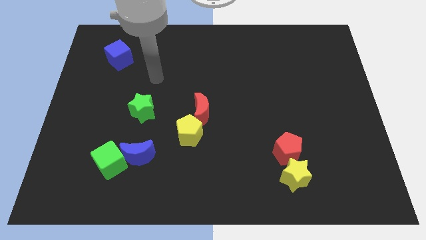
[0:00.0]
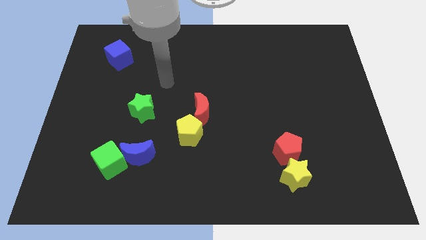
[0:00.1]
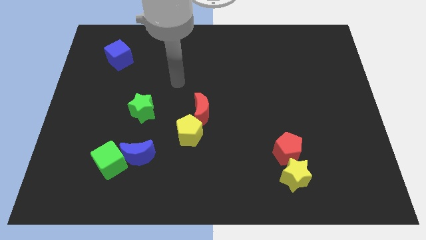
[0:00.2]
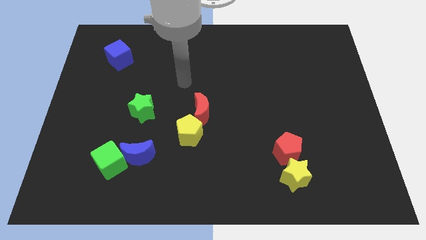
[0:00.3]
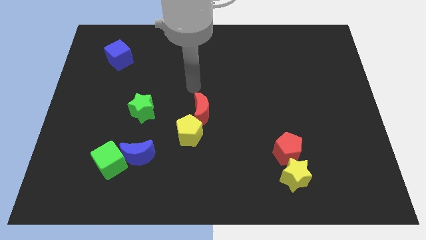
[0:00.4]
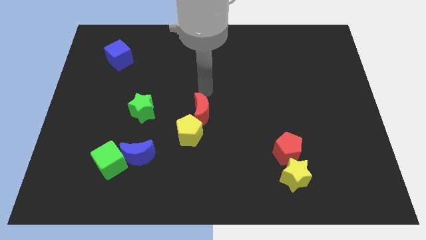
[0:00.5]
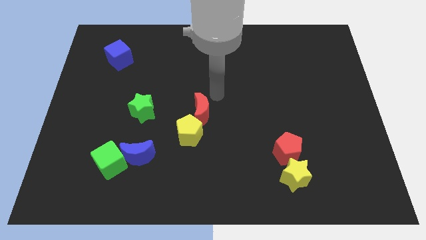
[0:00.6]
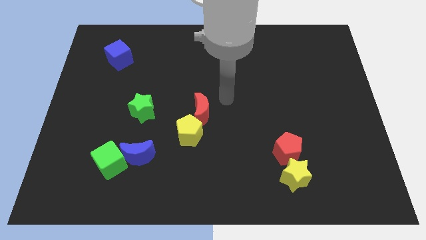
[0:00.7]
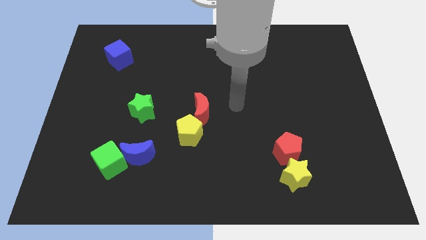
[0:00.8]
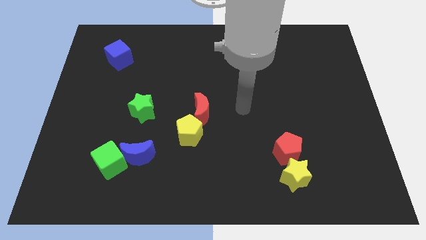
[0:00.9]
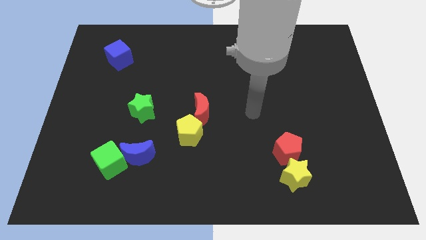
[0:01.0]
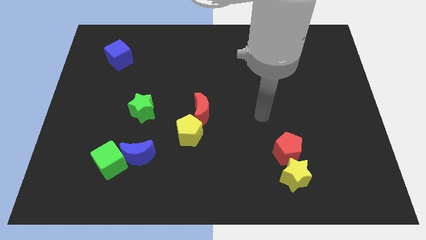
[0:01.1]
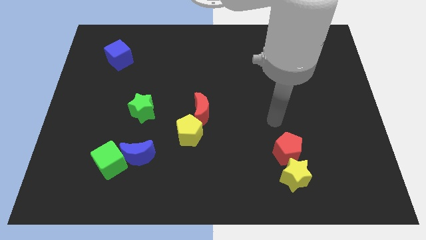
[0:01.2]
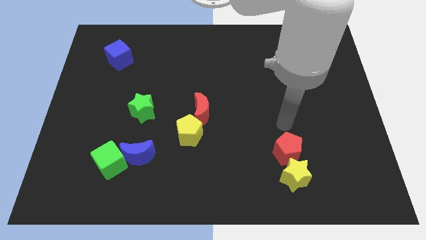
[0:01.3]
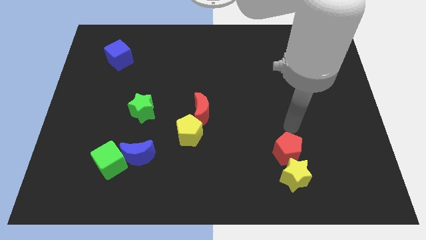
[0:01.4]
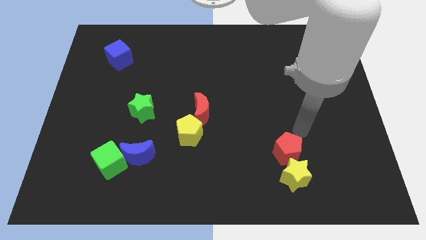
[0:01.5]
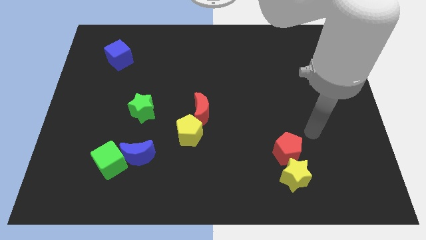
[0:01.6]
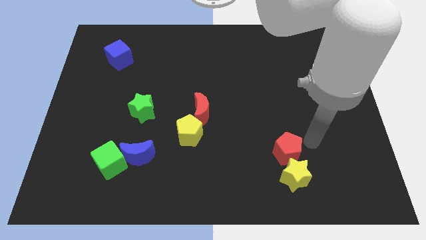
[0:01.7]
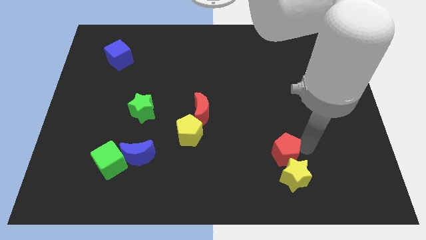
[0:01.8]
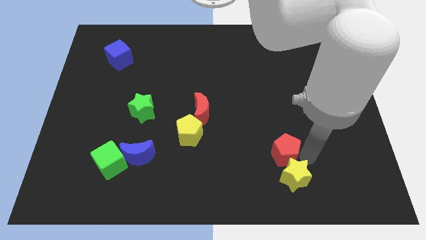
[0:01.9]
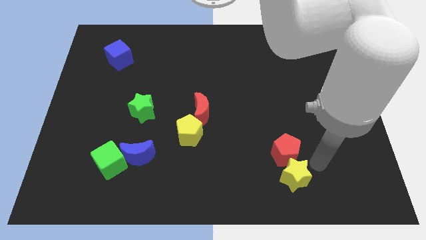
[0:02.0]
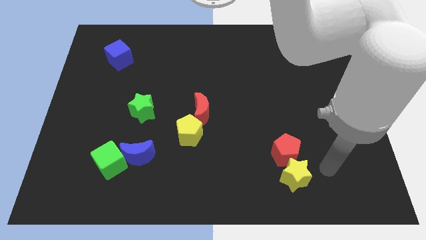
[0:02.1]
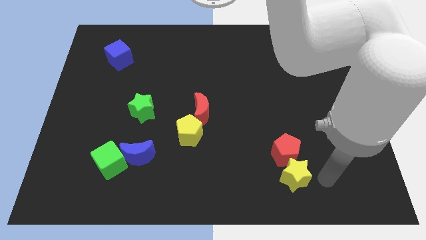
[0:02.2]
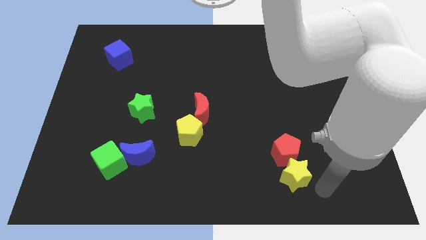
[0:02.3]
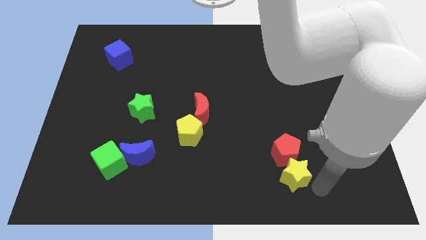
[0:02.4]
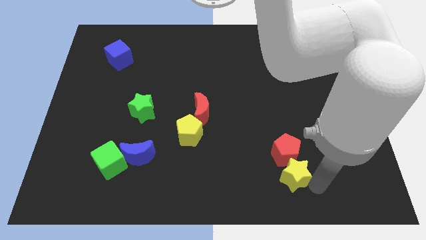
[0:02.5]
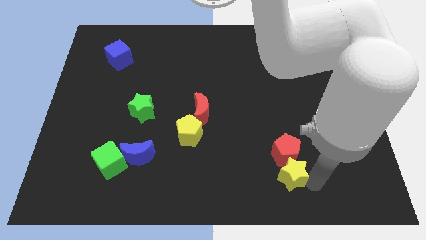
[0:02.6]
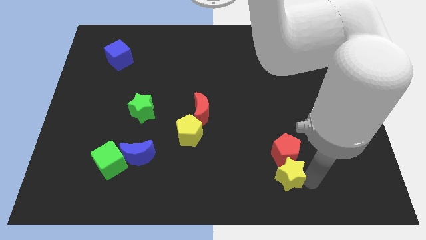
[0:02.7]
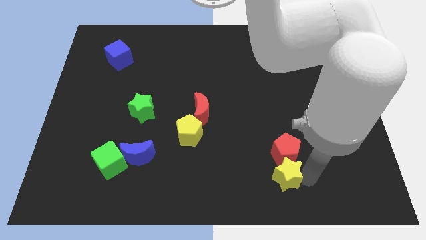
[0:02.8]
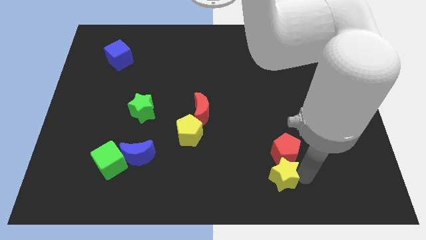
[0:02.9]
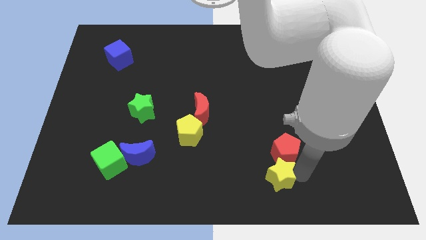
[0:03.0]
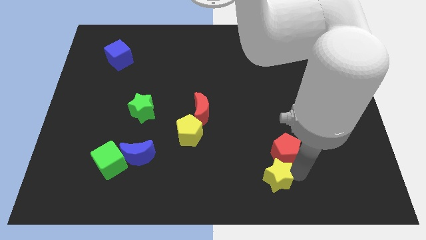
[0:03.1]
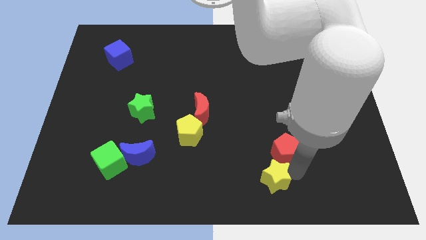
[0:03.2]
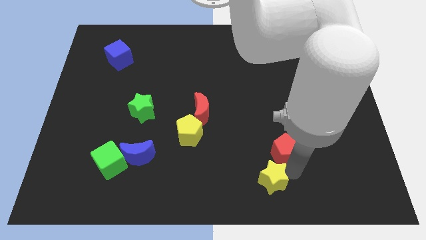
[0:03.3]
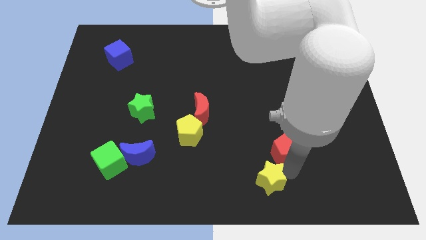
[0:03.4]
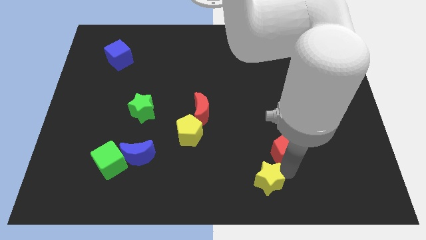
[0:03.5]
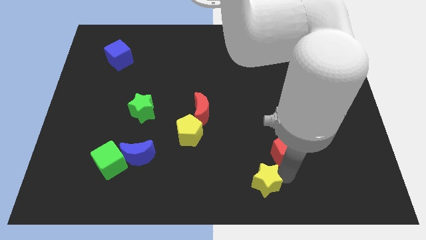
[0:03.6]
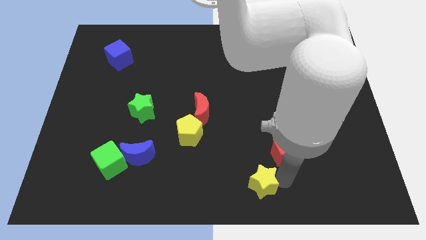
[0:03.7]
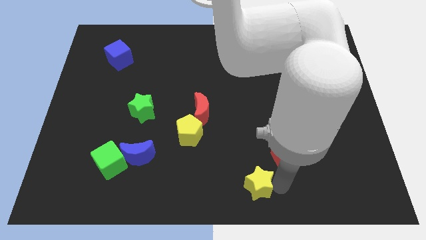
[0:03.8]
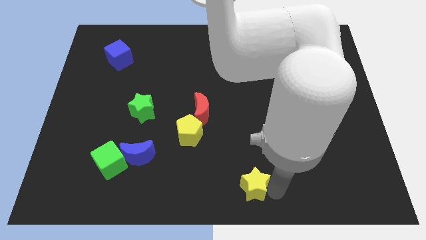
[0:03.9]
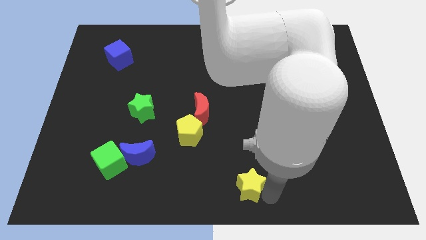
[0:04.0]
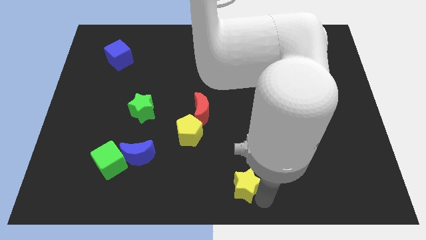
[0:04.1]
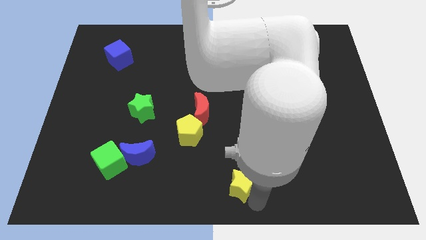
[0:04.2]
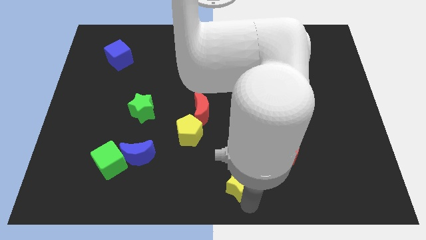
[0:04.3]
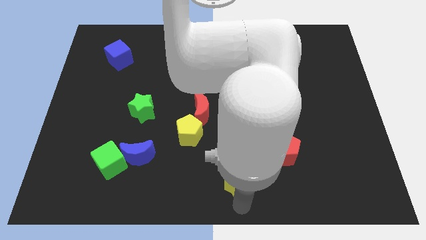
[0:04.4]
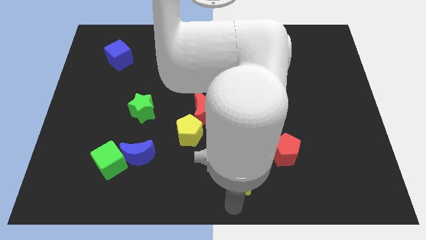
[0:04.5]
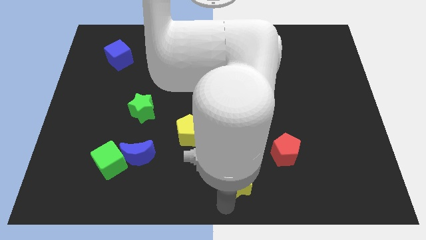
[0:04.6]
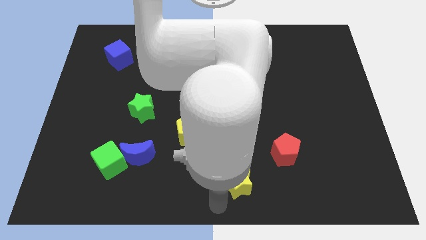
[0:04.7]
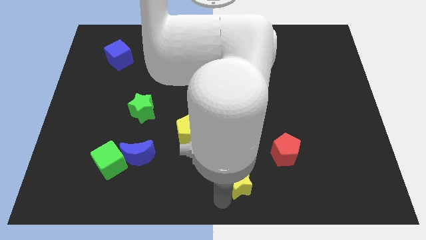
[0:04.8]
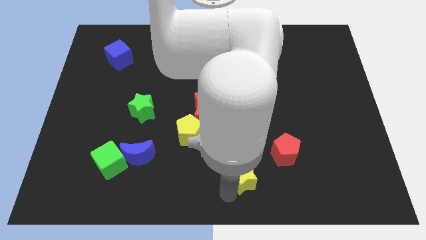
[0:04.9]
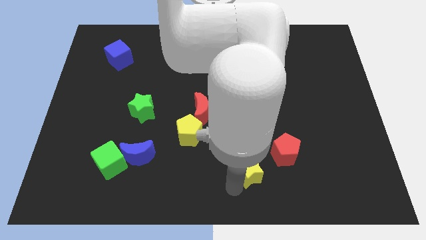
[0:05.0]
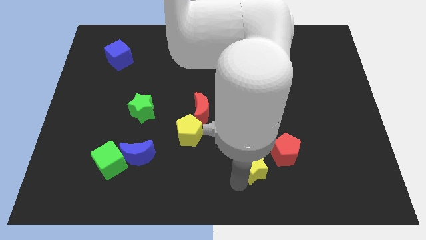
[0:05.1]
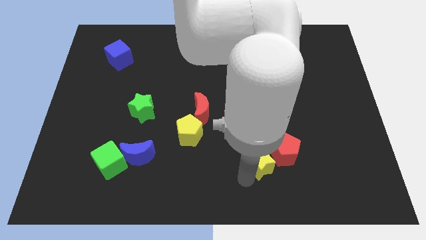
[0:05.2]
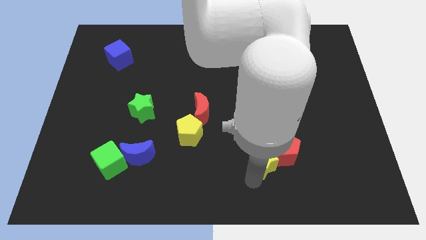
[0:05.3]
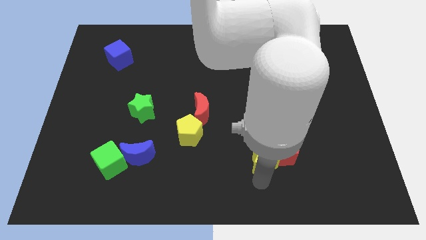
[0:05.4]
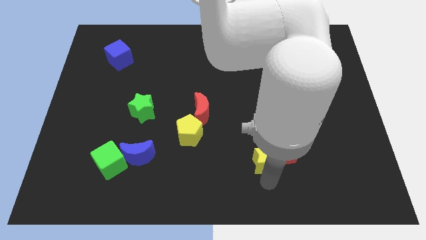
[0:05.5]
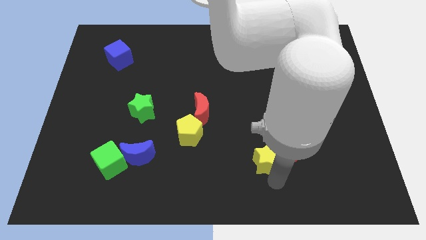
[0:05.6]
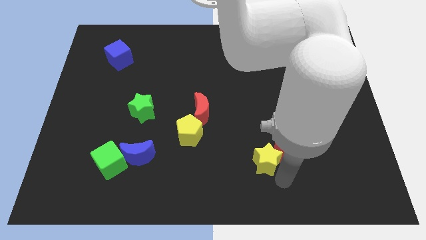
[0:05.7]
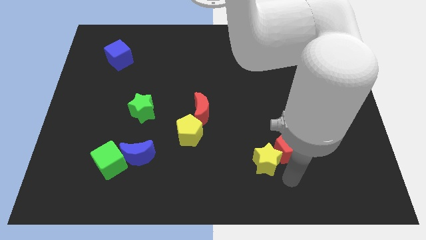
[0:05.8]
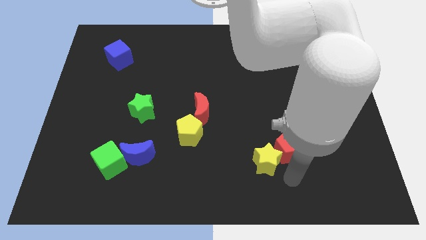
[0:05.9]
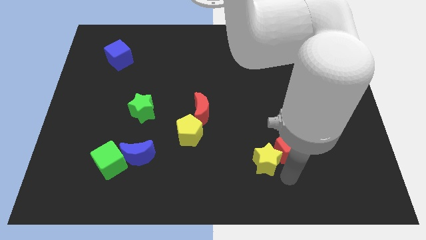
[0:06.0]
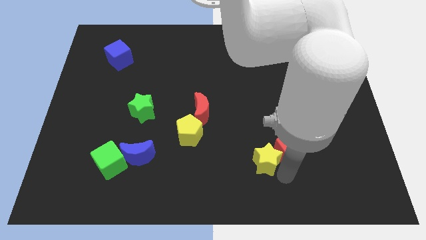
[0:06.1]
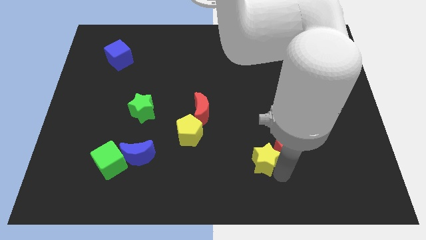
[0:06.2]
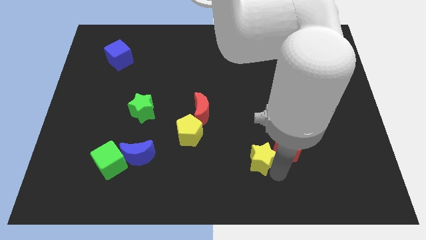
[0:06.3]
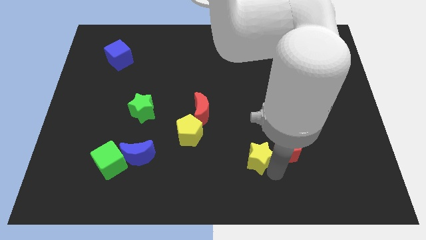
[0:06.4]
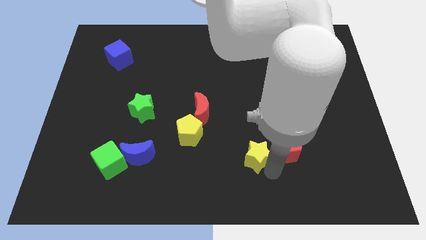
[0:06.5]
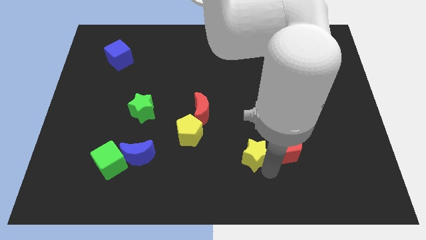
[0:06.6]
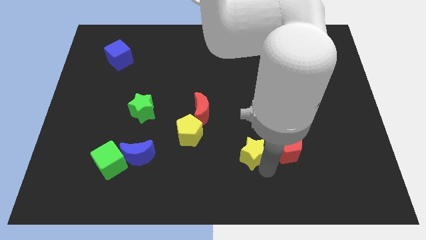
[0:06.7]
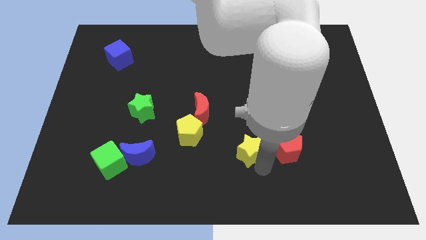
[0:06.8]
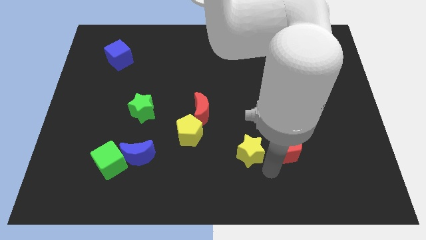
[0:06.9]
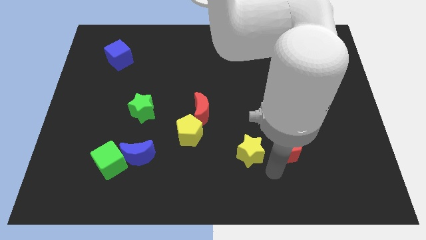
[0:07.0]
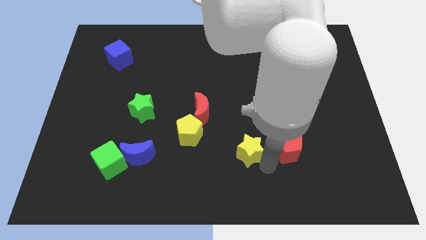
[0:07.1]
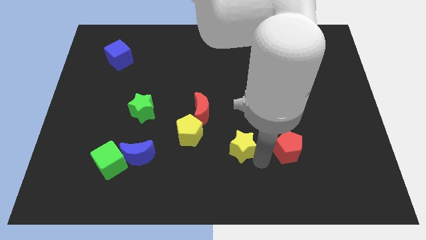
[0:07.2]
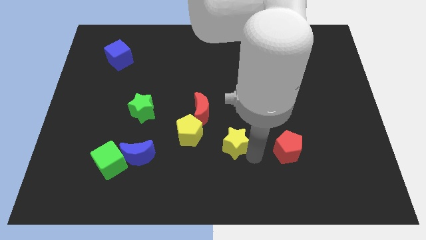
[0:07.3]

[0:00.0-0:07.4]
move the yellow star to the bottom right side of the red moon

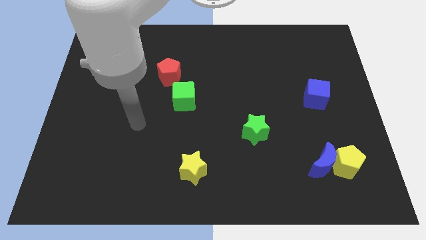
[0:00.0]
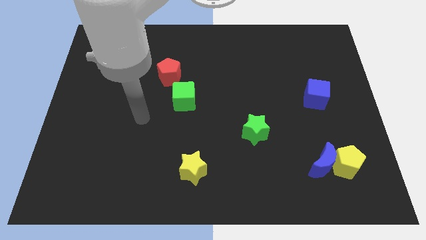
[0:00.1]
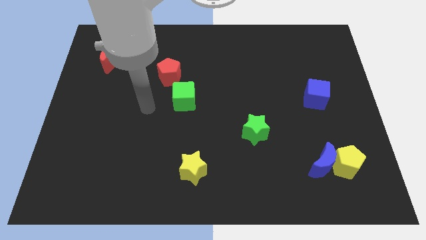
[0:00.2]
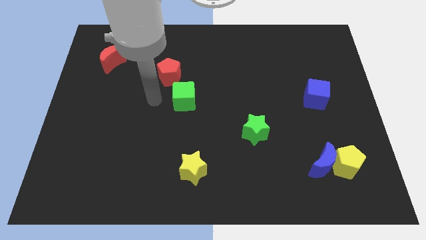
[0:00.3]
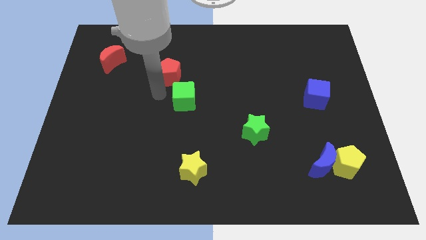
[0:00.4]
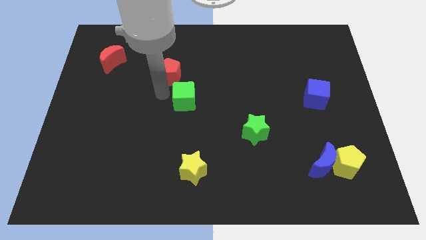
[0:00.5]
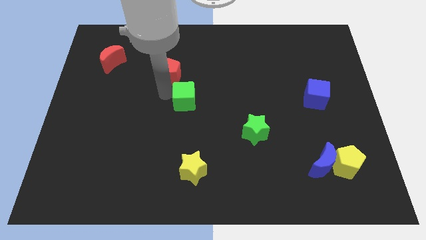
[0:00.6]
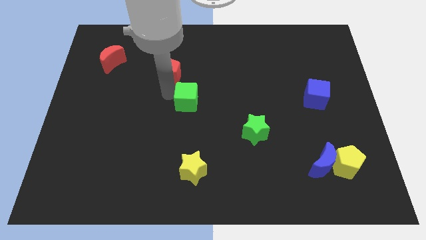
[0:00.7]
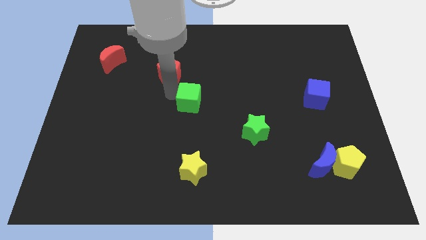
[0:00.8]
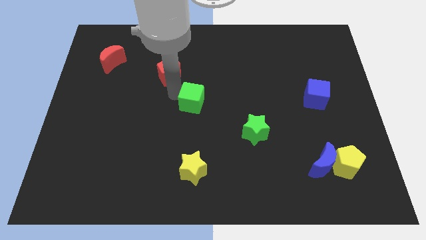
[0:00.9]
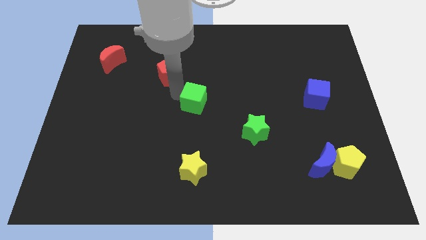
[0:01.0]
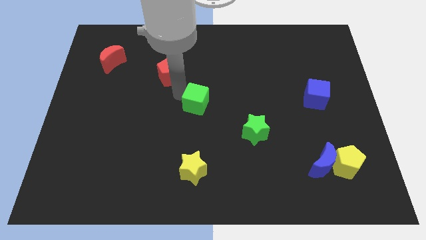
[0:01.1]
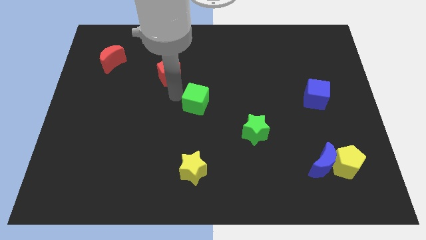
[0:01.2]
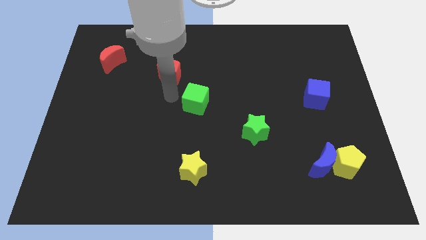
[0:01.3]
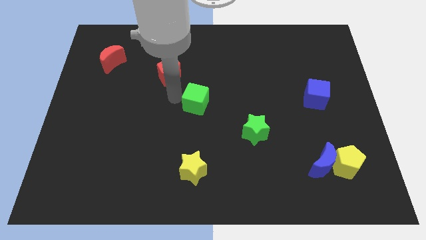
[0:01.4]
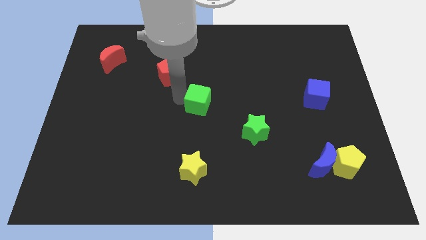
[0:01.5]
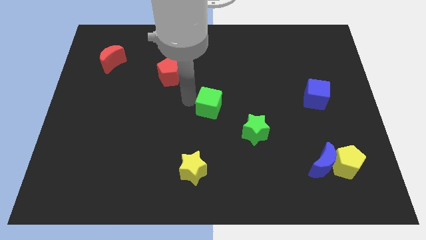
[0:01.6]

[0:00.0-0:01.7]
move the green cube to the top left side of the green star
